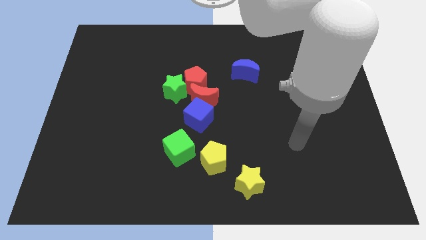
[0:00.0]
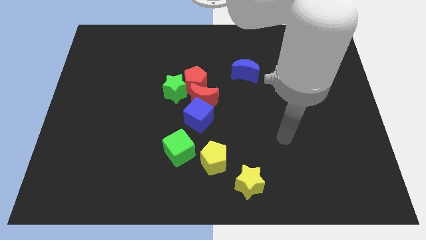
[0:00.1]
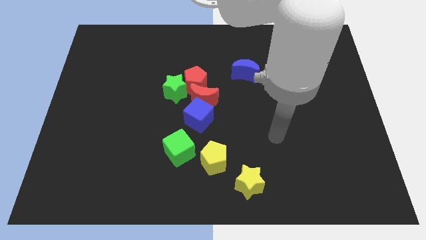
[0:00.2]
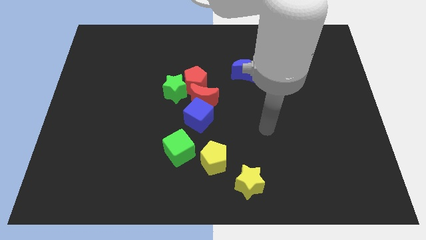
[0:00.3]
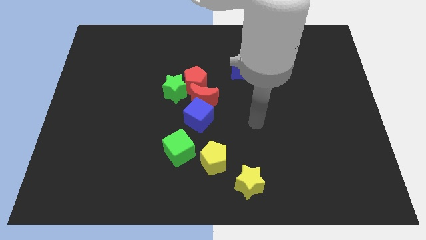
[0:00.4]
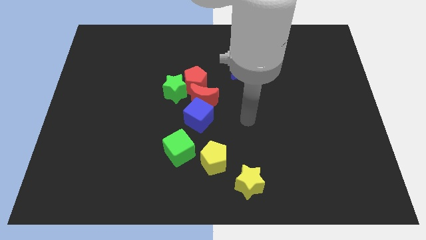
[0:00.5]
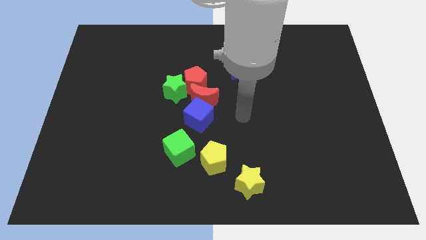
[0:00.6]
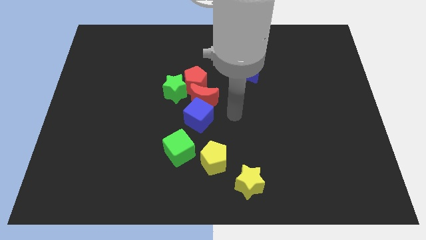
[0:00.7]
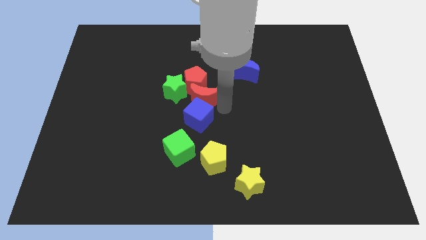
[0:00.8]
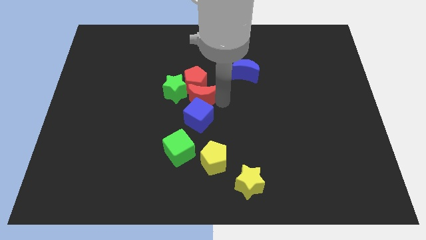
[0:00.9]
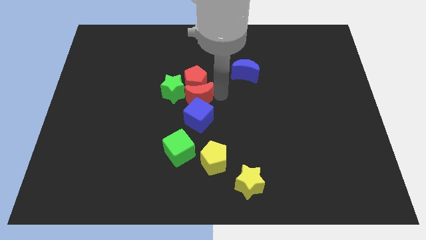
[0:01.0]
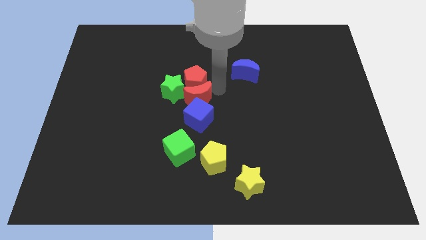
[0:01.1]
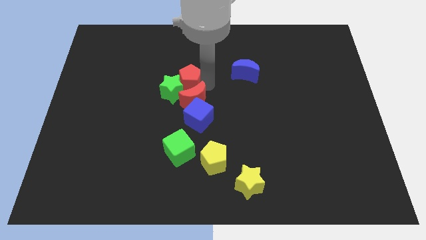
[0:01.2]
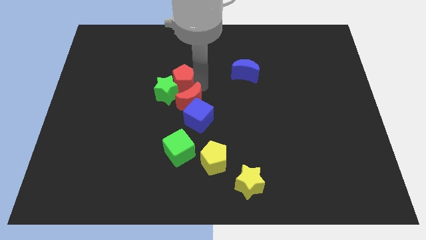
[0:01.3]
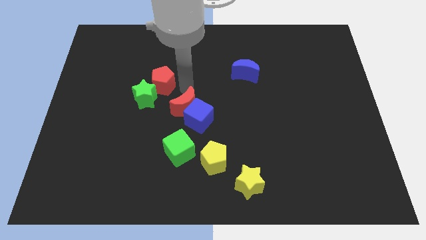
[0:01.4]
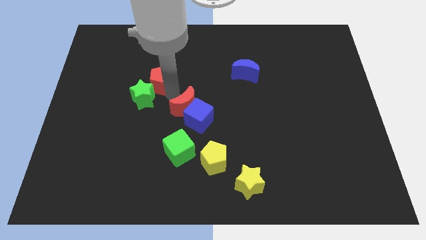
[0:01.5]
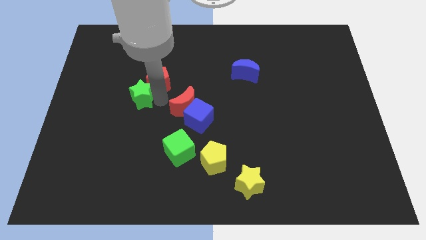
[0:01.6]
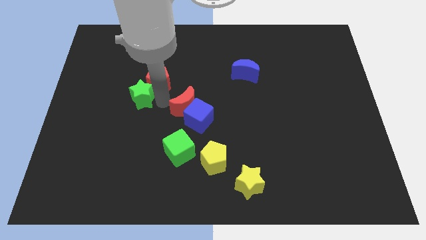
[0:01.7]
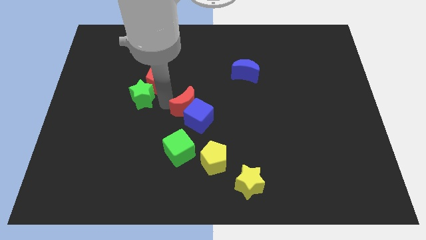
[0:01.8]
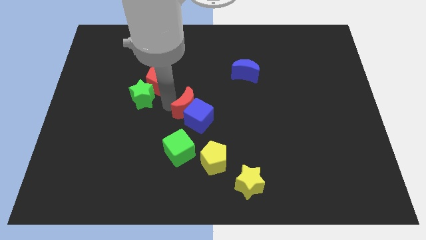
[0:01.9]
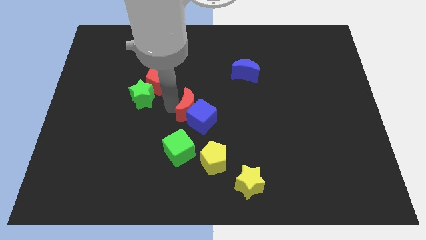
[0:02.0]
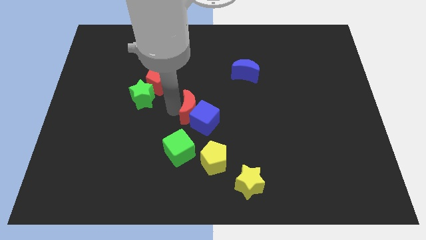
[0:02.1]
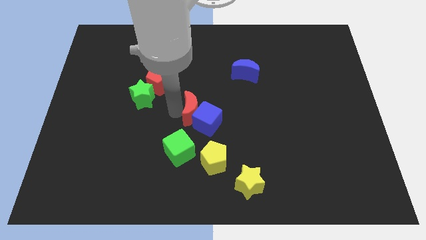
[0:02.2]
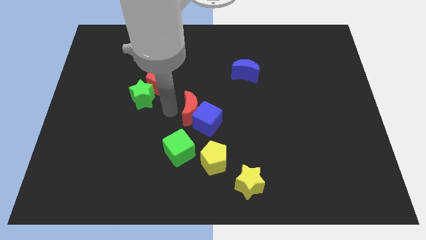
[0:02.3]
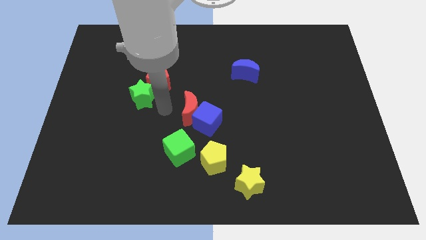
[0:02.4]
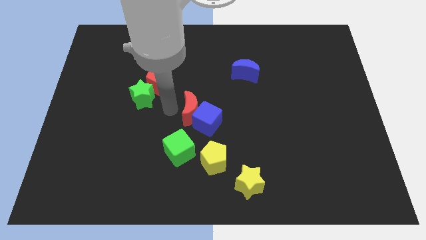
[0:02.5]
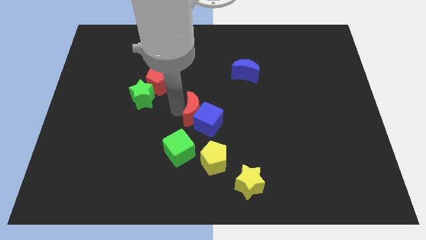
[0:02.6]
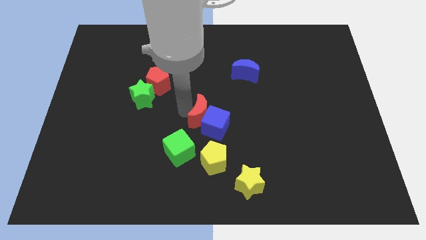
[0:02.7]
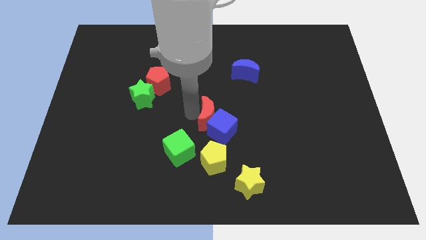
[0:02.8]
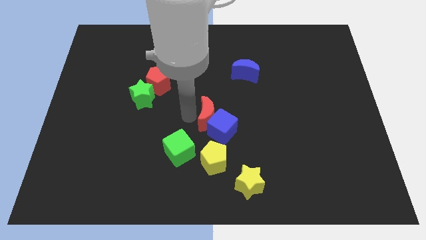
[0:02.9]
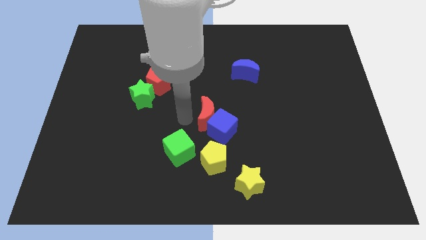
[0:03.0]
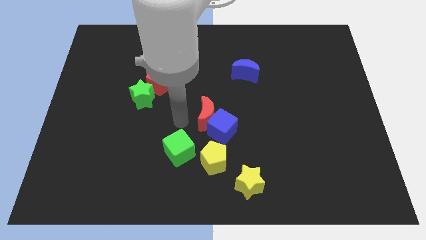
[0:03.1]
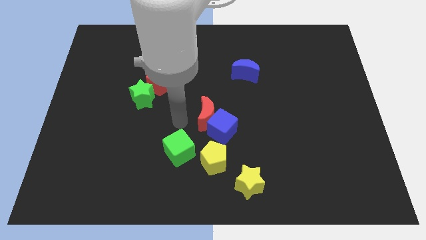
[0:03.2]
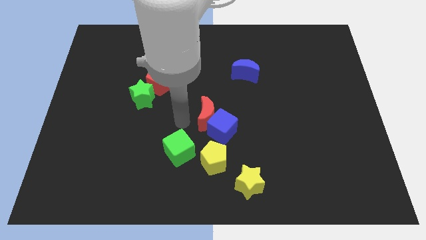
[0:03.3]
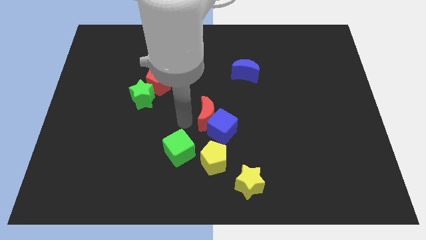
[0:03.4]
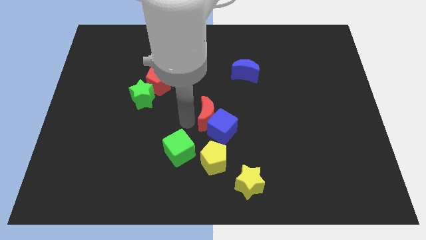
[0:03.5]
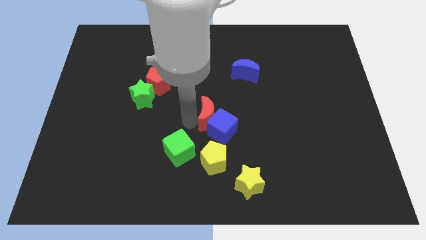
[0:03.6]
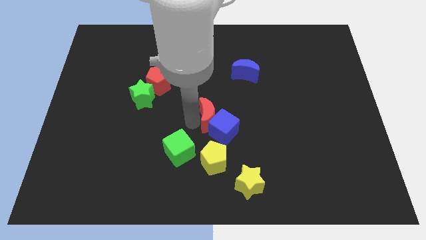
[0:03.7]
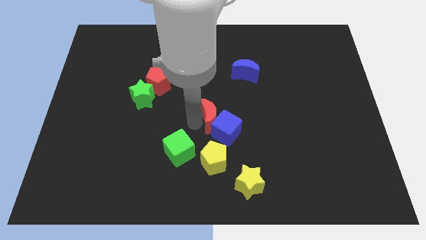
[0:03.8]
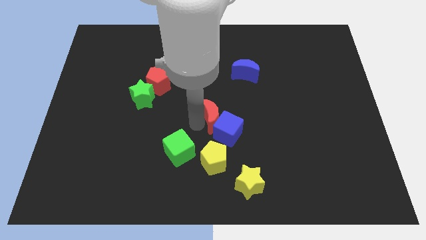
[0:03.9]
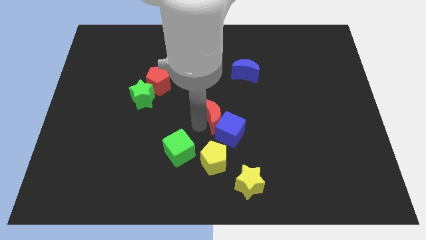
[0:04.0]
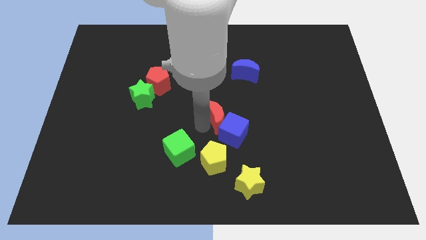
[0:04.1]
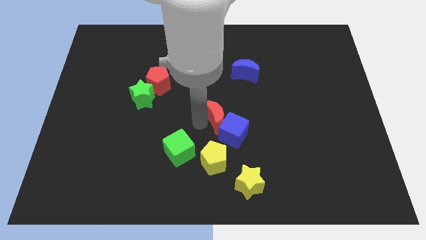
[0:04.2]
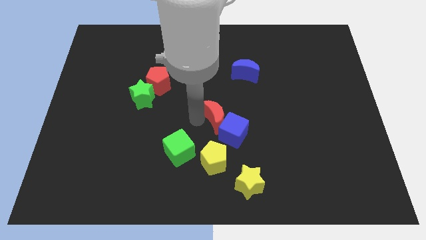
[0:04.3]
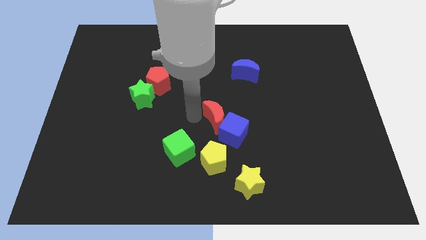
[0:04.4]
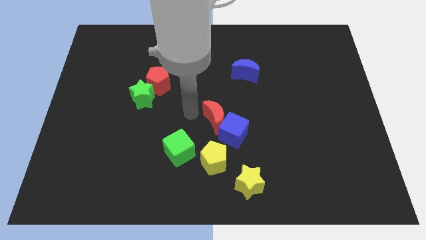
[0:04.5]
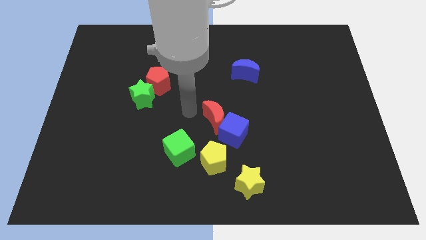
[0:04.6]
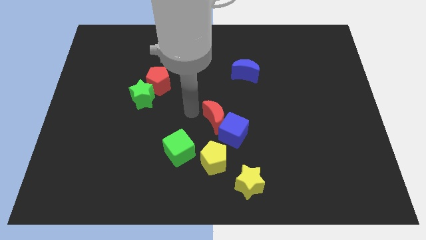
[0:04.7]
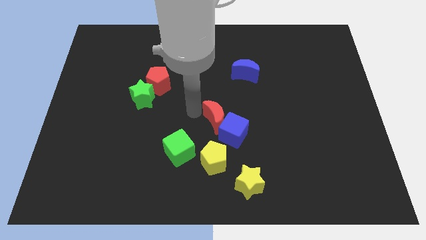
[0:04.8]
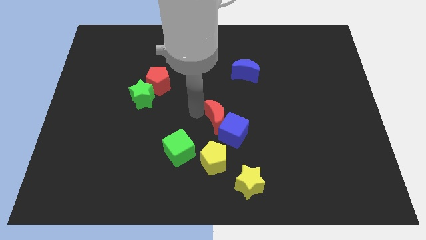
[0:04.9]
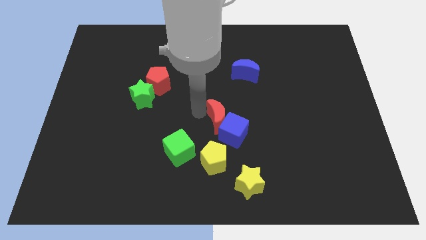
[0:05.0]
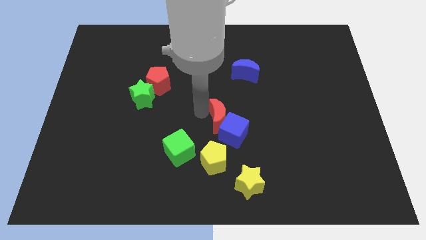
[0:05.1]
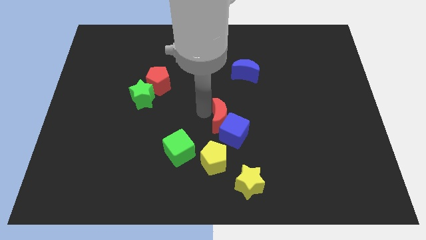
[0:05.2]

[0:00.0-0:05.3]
slightly move the red moon diagonally downwards and right

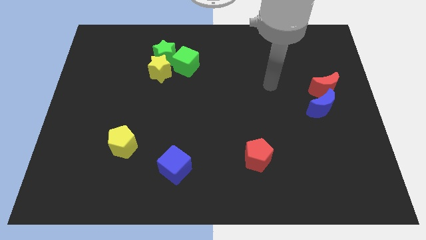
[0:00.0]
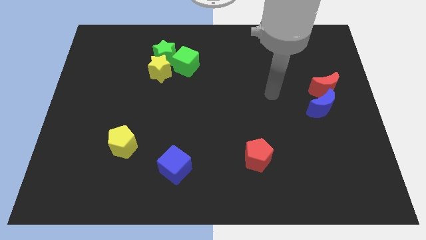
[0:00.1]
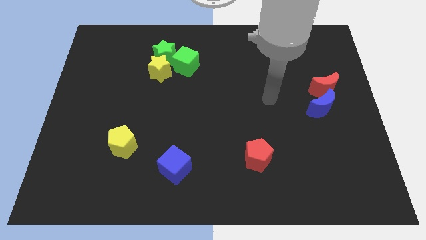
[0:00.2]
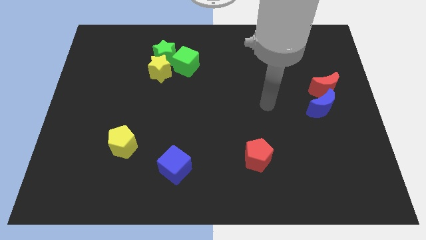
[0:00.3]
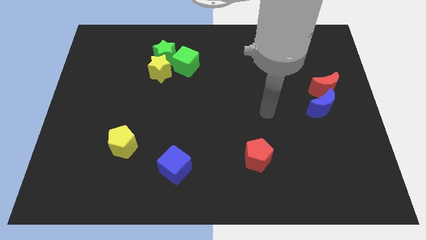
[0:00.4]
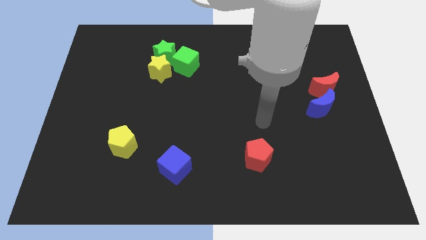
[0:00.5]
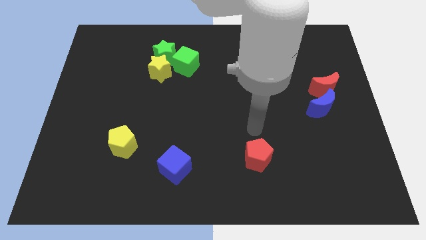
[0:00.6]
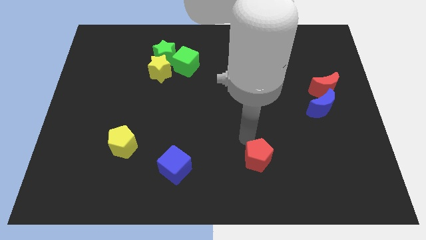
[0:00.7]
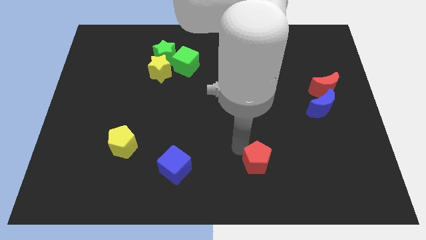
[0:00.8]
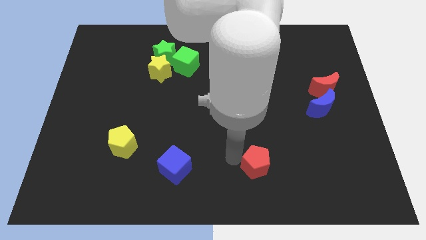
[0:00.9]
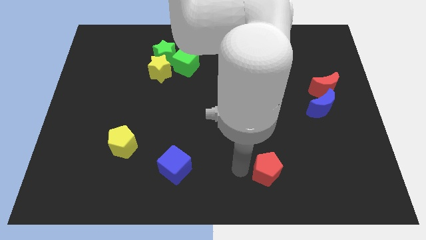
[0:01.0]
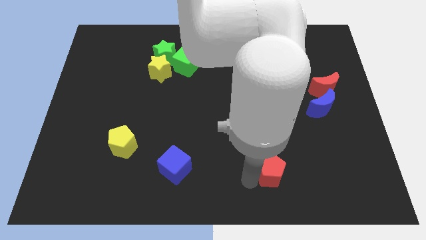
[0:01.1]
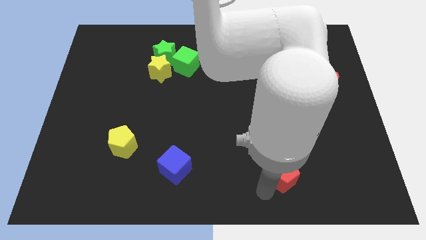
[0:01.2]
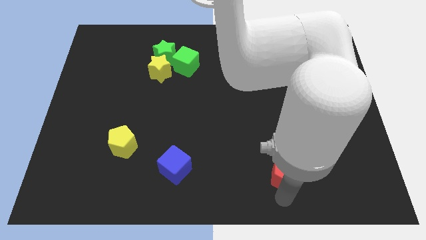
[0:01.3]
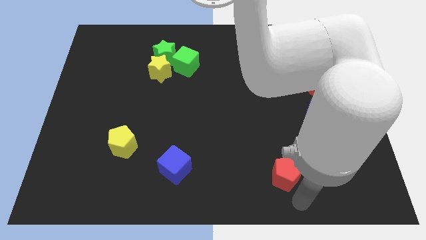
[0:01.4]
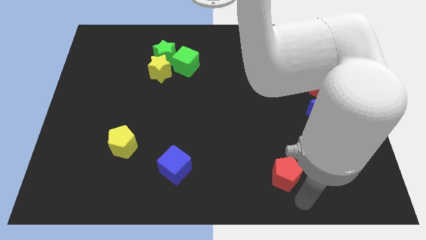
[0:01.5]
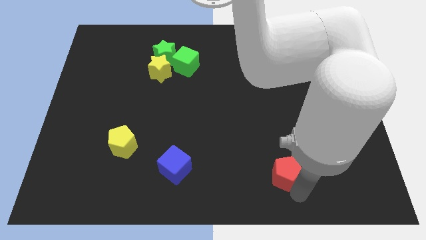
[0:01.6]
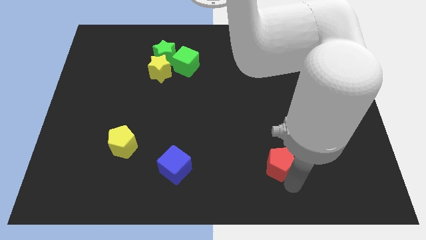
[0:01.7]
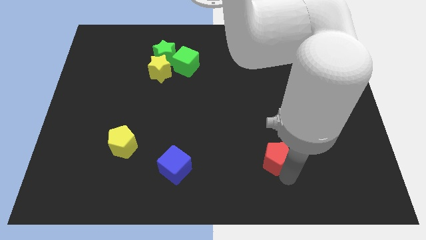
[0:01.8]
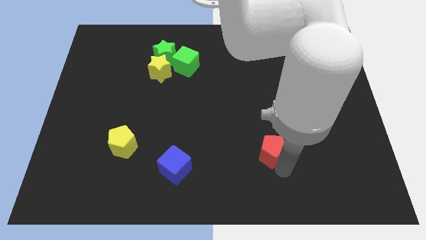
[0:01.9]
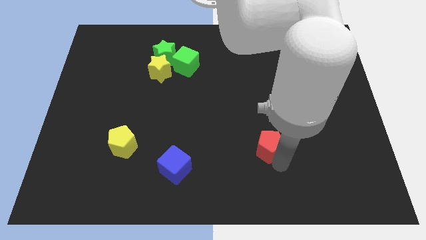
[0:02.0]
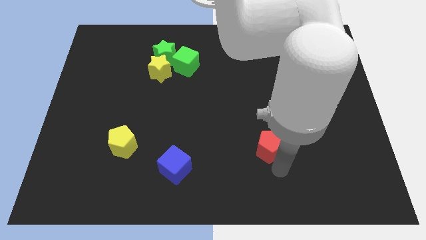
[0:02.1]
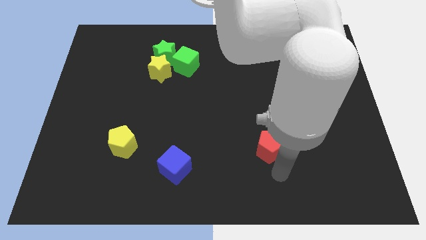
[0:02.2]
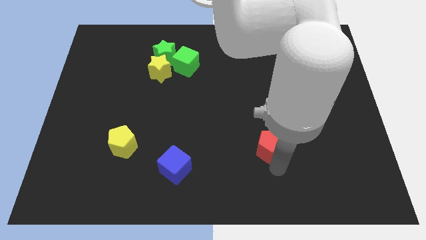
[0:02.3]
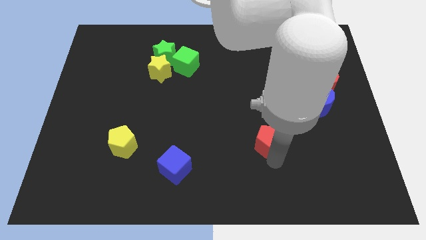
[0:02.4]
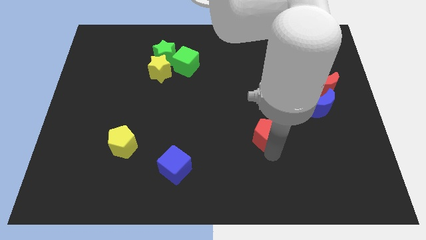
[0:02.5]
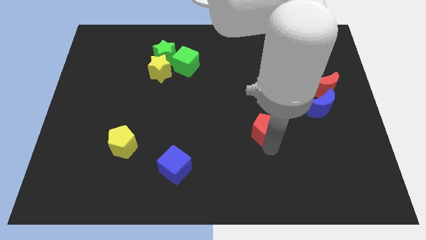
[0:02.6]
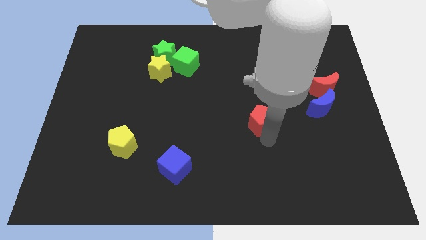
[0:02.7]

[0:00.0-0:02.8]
slightly slide the red pentagon up

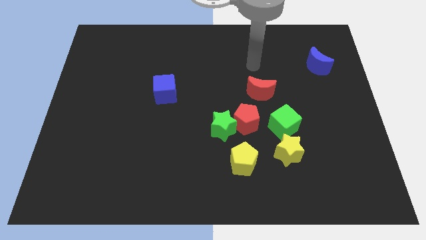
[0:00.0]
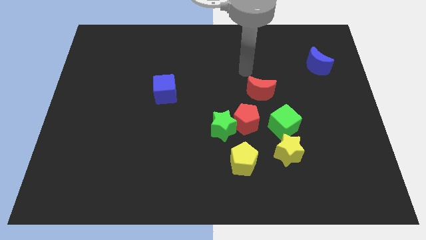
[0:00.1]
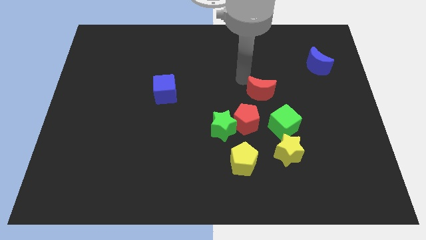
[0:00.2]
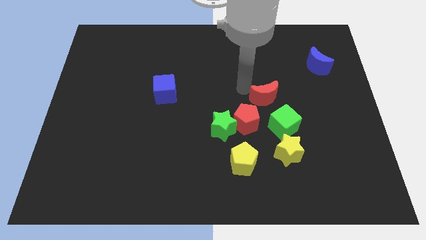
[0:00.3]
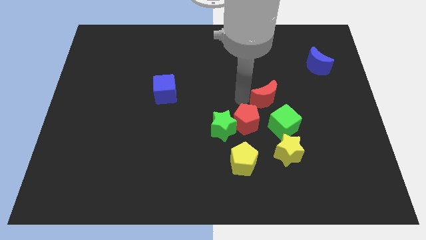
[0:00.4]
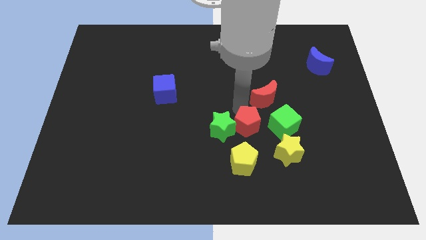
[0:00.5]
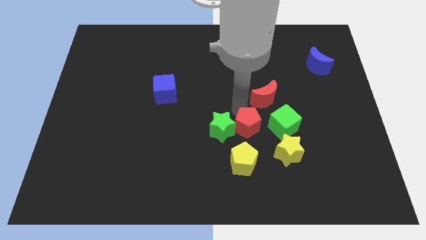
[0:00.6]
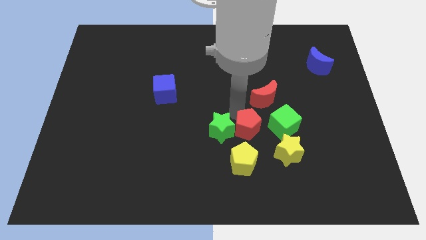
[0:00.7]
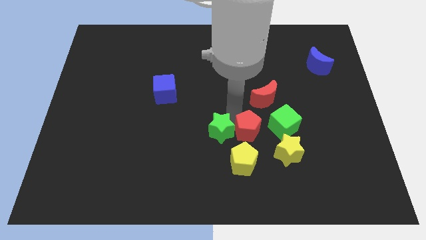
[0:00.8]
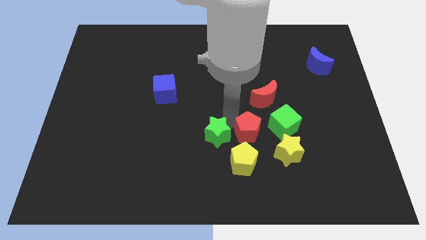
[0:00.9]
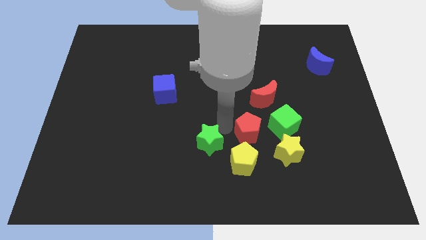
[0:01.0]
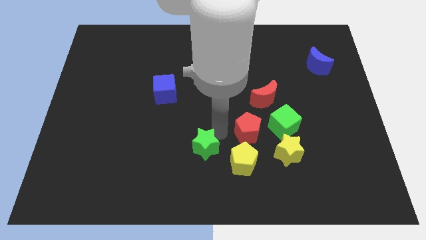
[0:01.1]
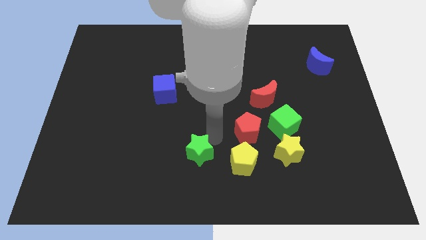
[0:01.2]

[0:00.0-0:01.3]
slightly move the green star downwards and left diagonally
